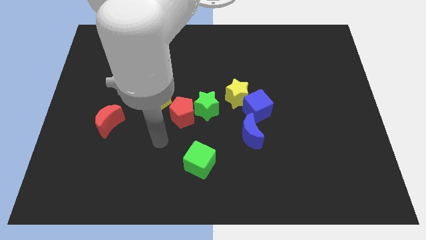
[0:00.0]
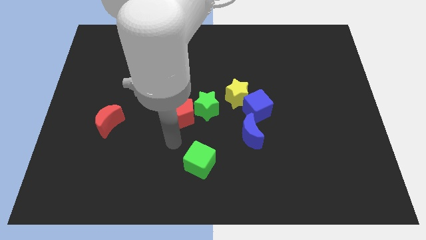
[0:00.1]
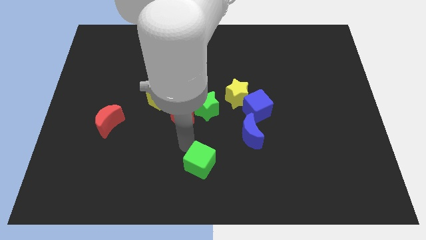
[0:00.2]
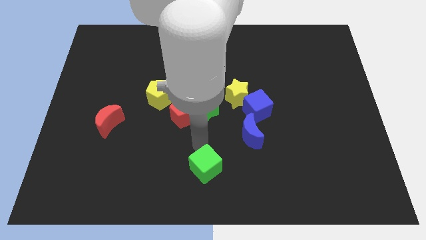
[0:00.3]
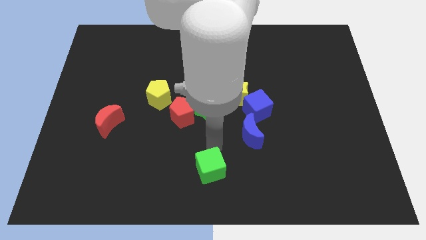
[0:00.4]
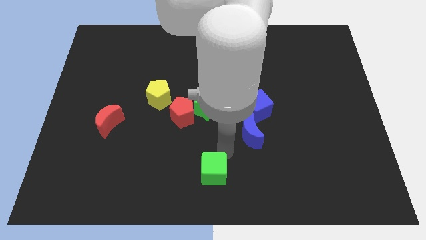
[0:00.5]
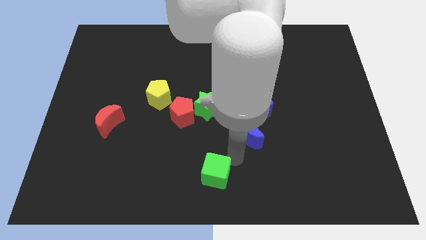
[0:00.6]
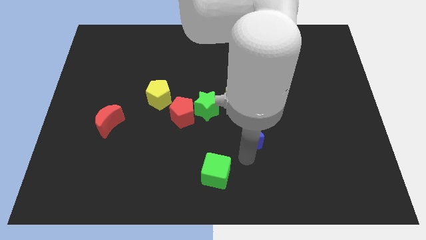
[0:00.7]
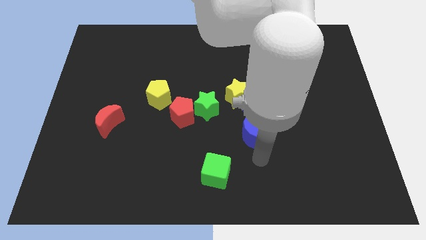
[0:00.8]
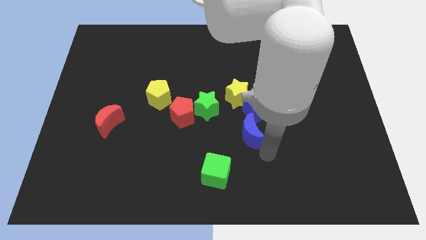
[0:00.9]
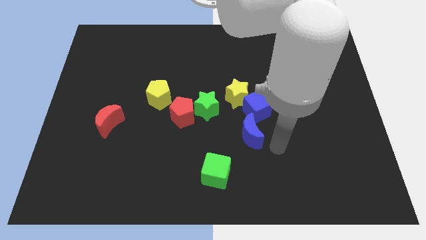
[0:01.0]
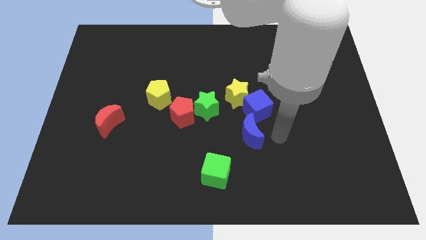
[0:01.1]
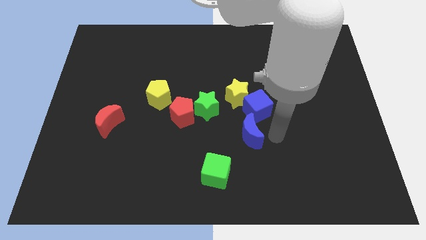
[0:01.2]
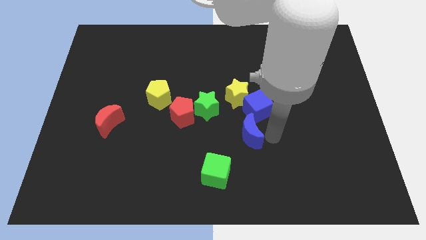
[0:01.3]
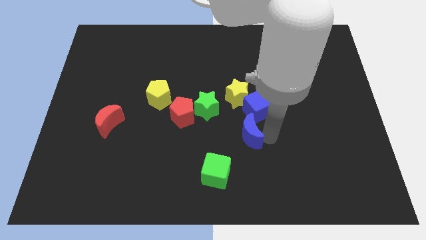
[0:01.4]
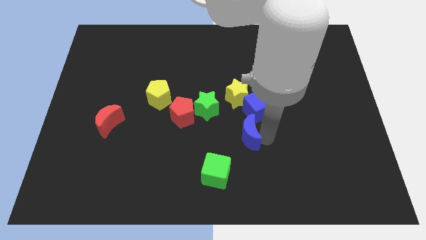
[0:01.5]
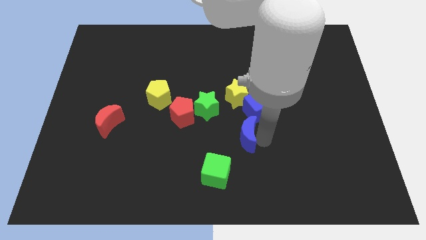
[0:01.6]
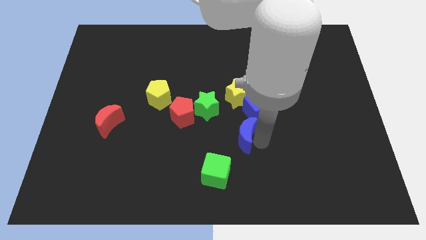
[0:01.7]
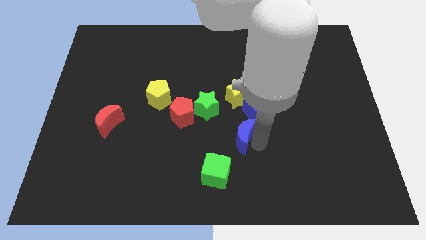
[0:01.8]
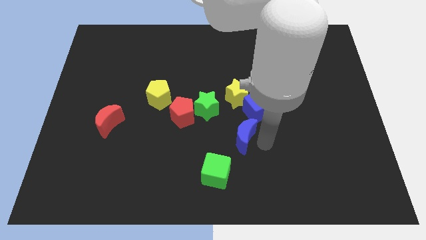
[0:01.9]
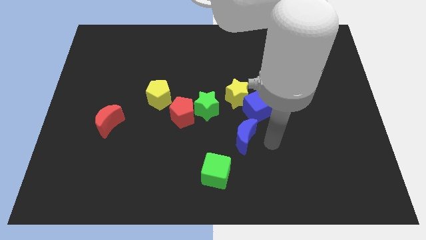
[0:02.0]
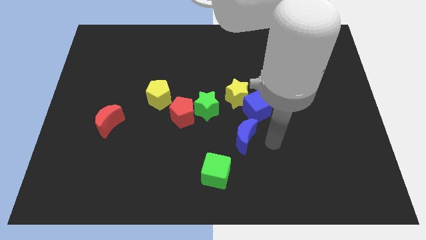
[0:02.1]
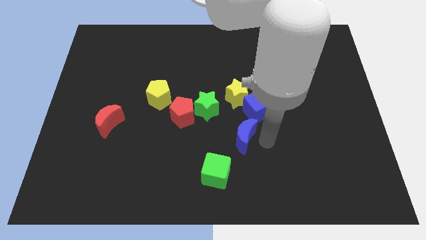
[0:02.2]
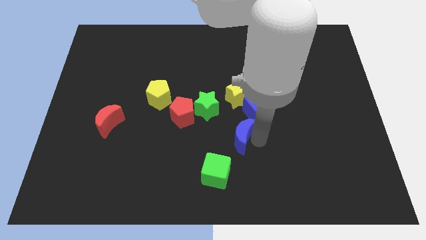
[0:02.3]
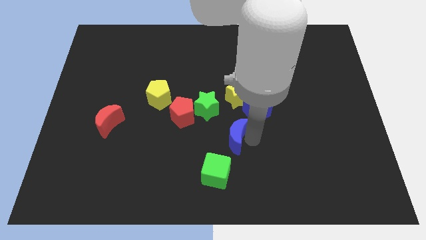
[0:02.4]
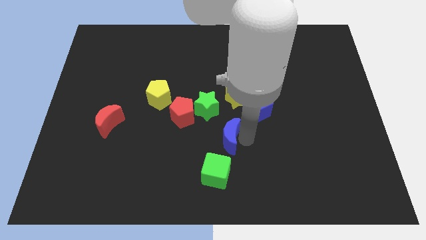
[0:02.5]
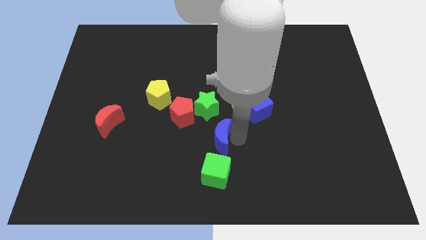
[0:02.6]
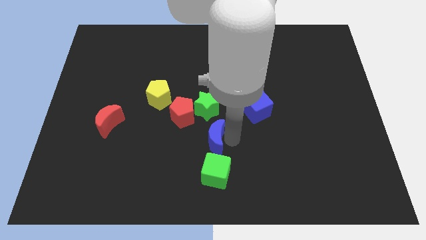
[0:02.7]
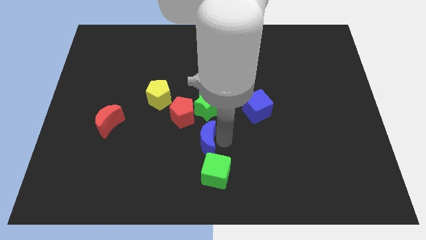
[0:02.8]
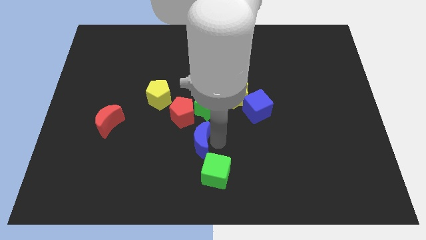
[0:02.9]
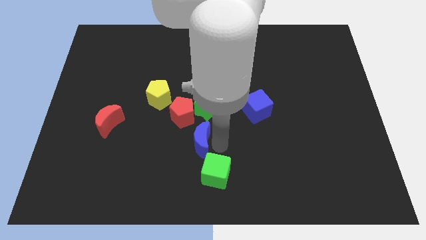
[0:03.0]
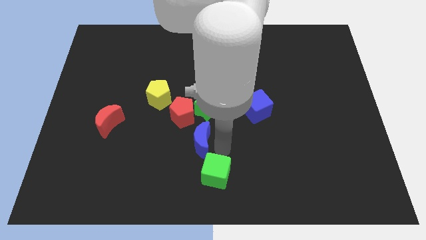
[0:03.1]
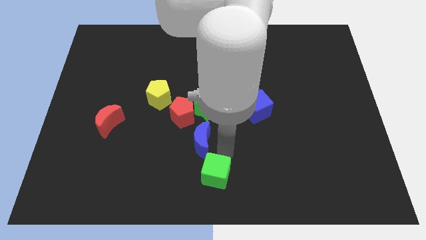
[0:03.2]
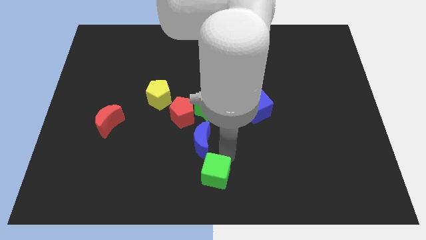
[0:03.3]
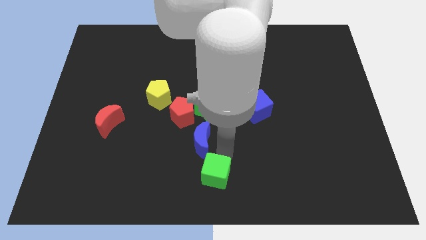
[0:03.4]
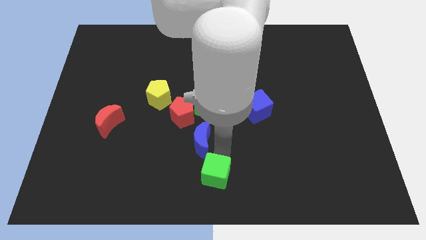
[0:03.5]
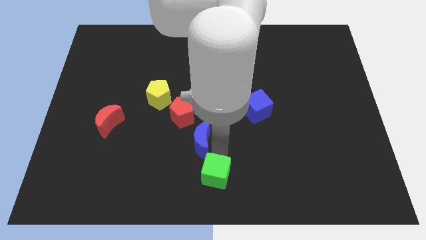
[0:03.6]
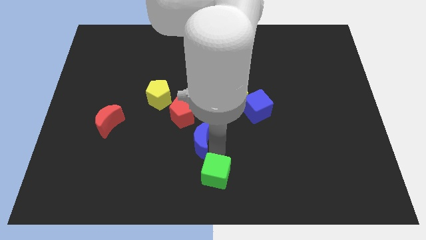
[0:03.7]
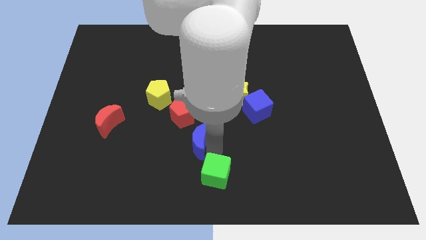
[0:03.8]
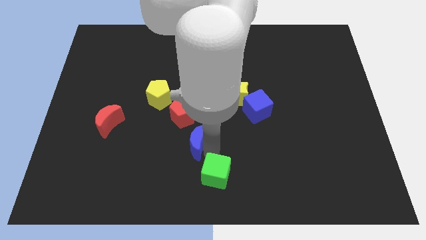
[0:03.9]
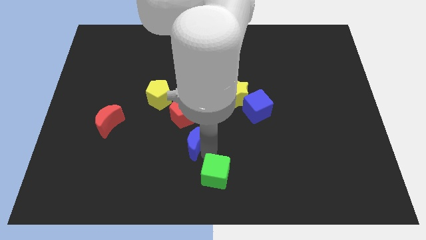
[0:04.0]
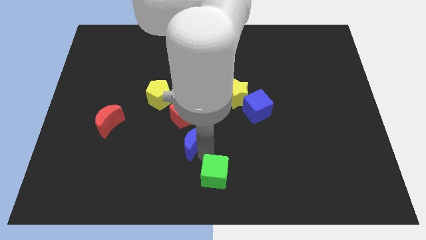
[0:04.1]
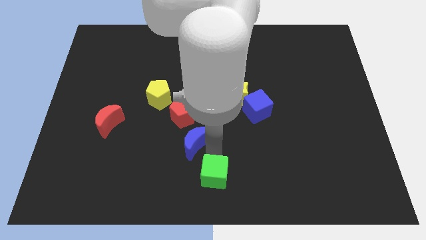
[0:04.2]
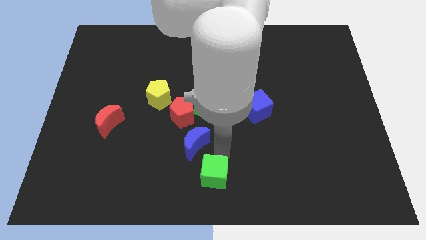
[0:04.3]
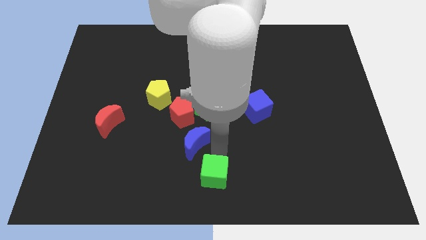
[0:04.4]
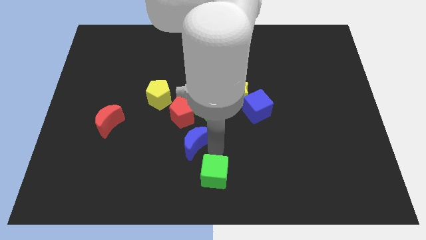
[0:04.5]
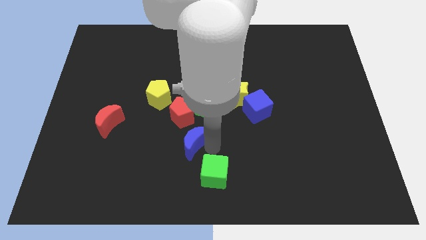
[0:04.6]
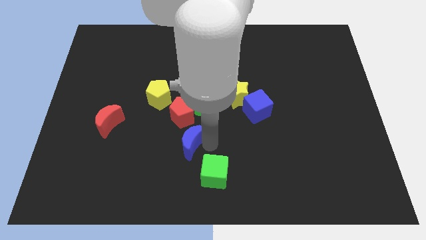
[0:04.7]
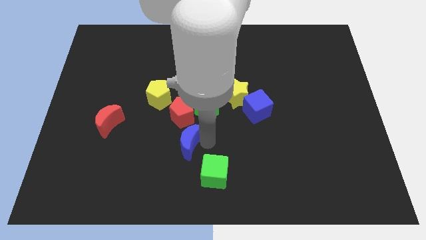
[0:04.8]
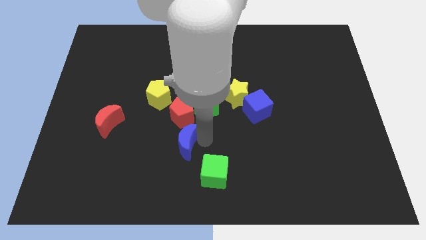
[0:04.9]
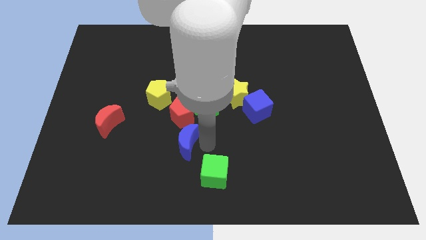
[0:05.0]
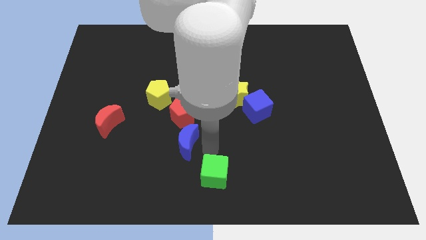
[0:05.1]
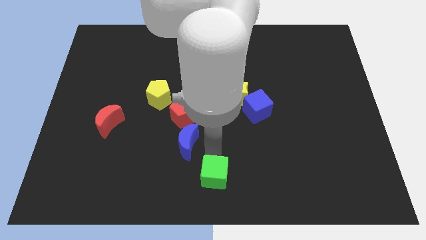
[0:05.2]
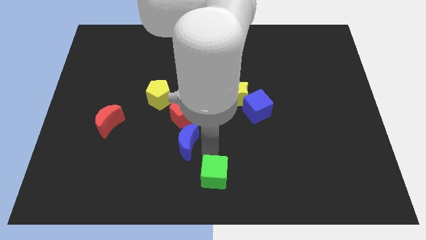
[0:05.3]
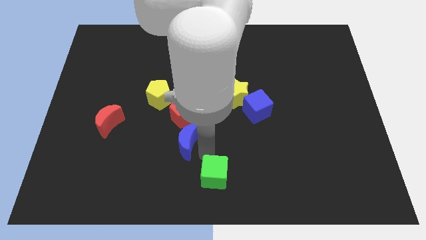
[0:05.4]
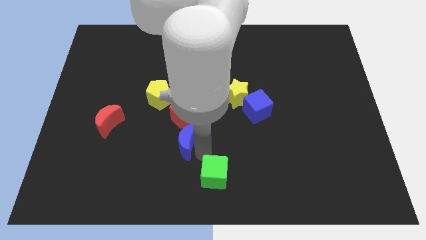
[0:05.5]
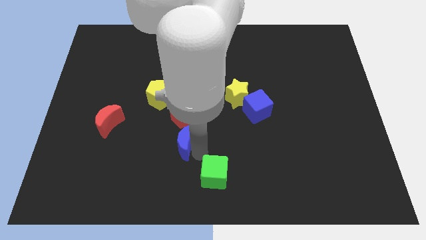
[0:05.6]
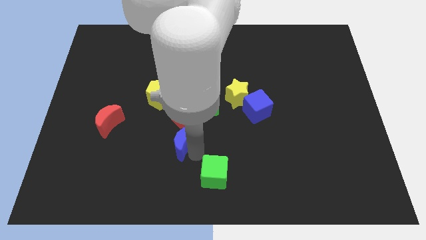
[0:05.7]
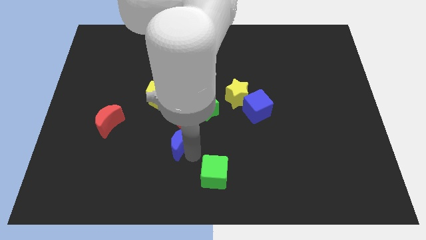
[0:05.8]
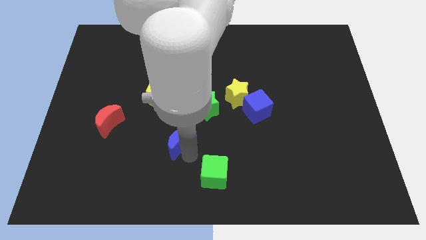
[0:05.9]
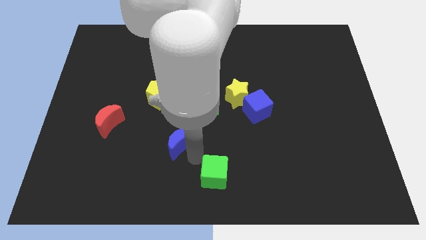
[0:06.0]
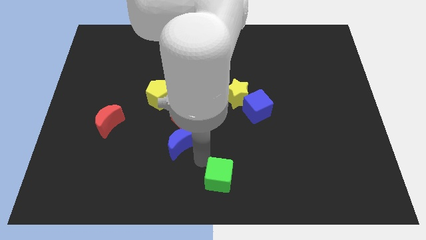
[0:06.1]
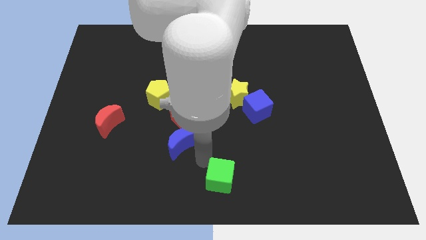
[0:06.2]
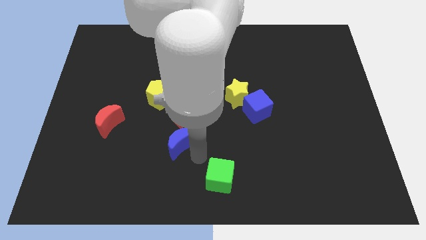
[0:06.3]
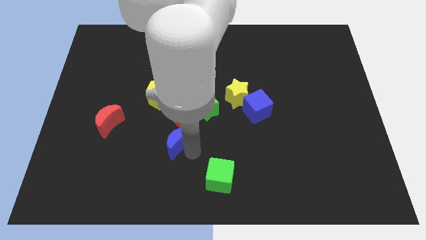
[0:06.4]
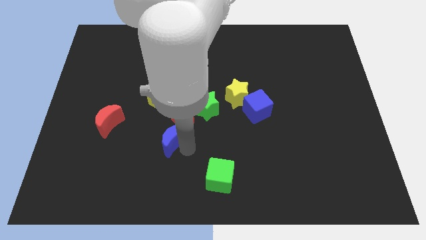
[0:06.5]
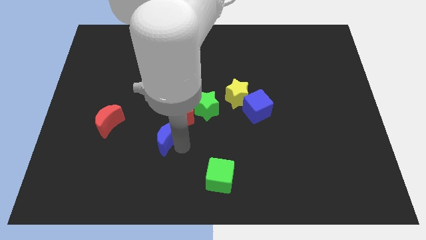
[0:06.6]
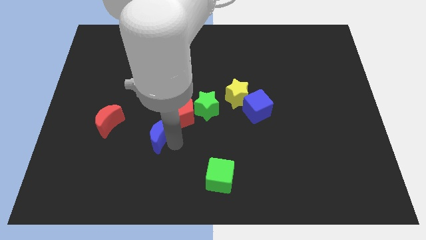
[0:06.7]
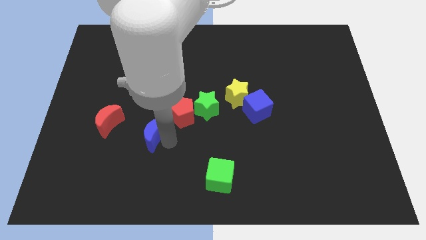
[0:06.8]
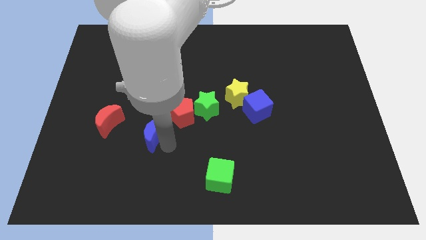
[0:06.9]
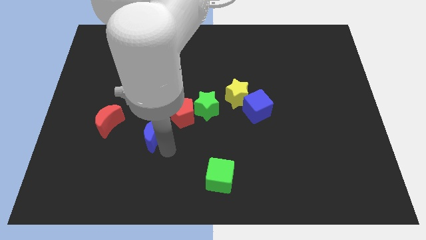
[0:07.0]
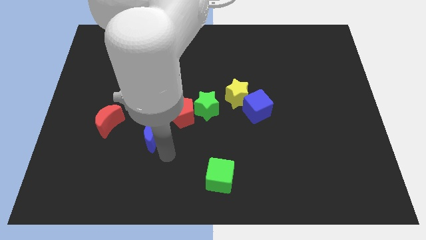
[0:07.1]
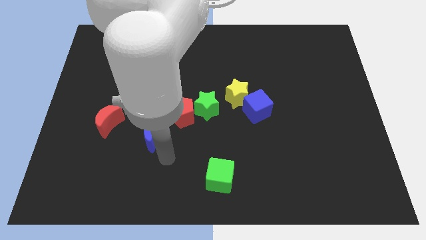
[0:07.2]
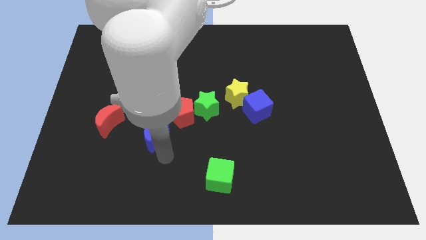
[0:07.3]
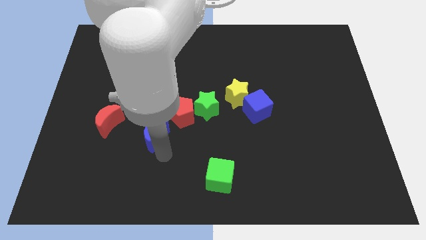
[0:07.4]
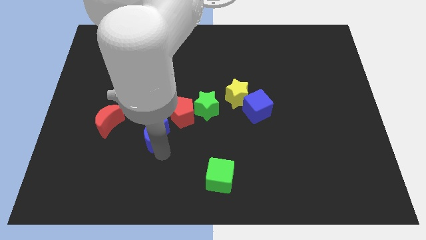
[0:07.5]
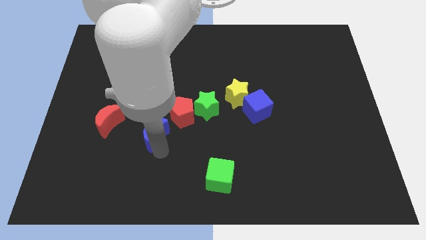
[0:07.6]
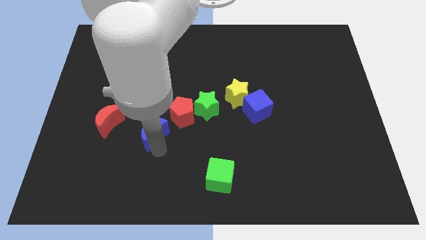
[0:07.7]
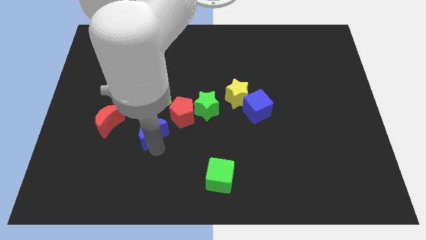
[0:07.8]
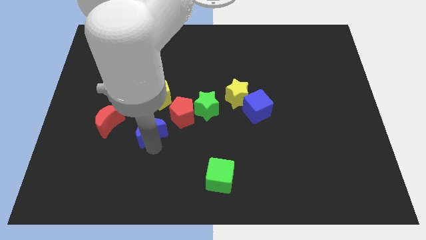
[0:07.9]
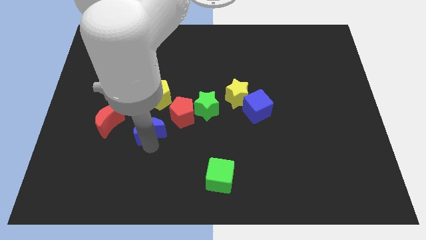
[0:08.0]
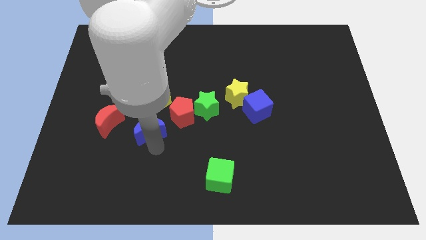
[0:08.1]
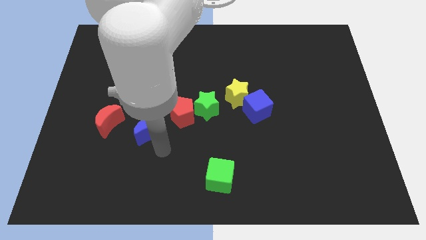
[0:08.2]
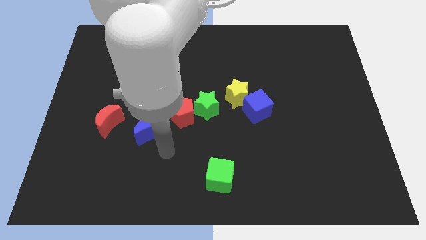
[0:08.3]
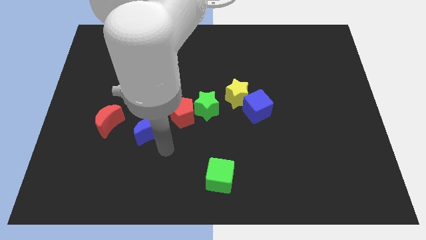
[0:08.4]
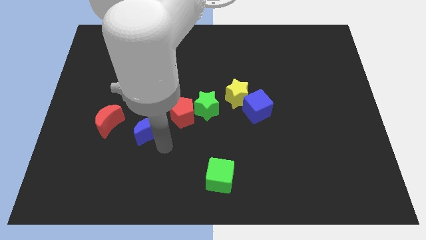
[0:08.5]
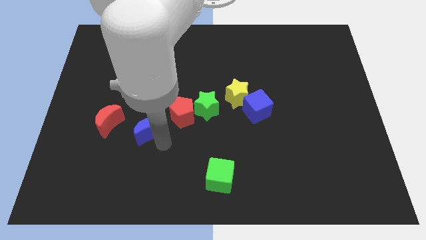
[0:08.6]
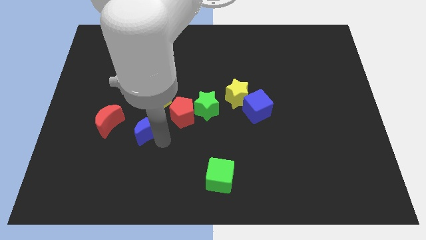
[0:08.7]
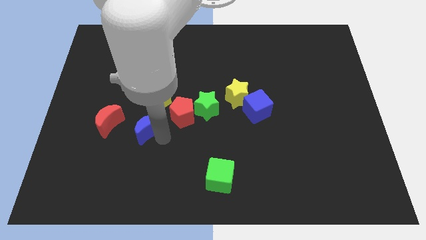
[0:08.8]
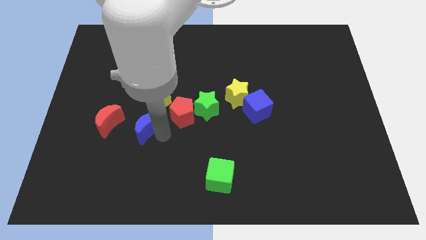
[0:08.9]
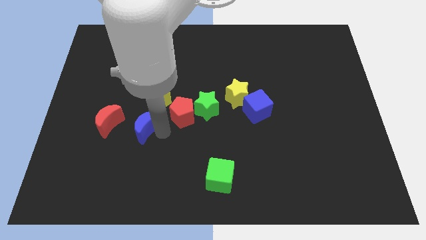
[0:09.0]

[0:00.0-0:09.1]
slide the blue moon to the bottom left of the yellow pentagon
